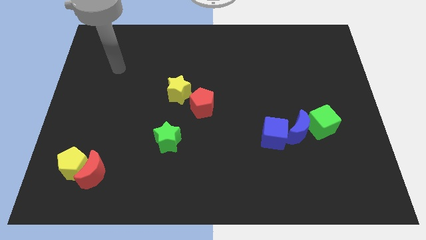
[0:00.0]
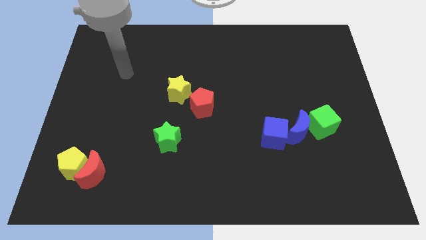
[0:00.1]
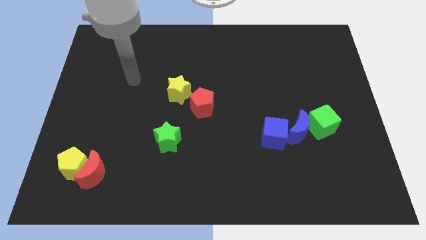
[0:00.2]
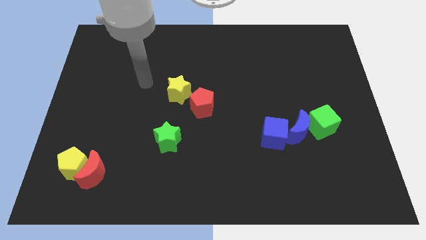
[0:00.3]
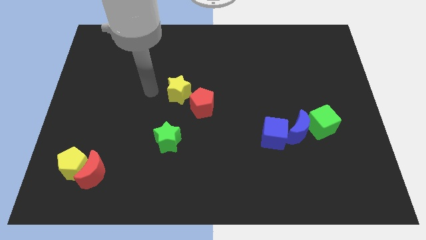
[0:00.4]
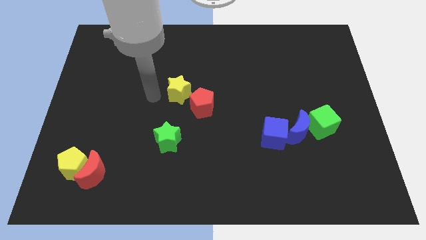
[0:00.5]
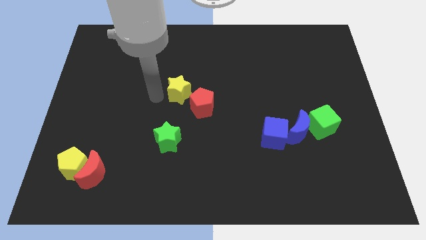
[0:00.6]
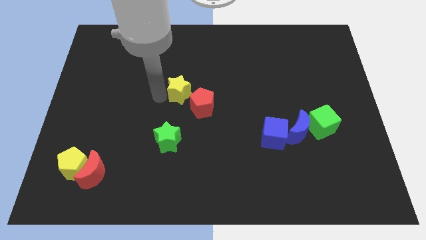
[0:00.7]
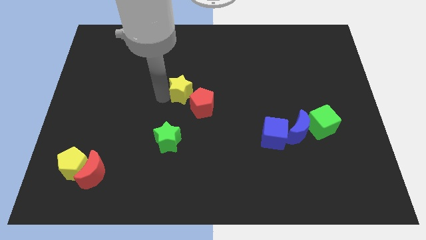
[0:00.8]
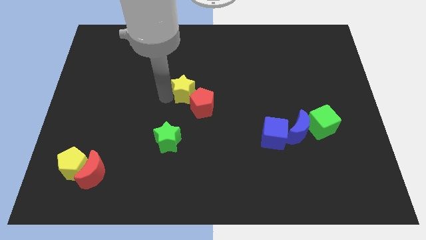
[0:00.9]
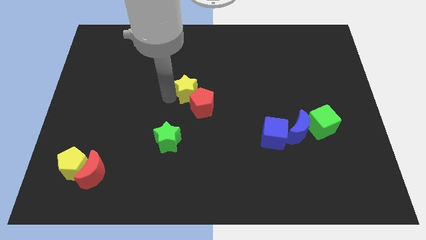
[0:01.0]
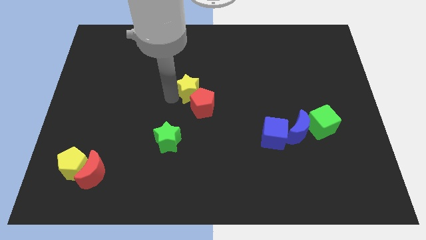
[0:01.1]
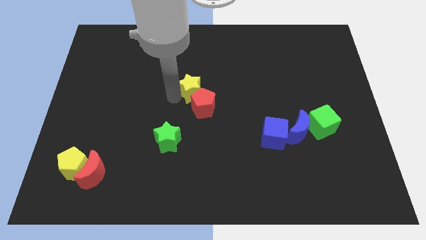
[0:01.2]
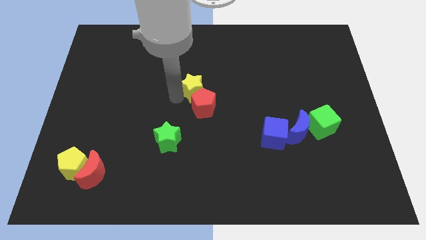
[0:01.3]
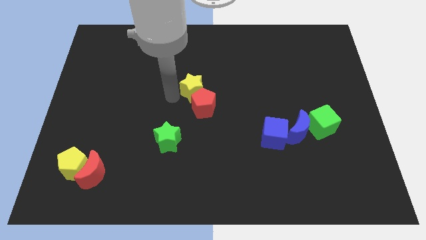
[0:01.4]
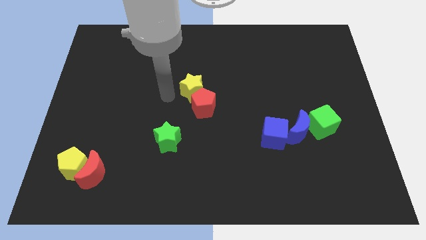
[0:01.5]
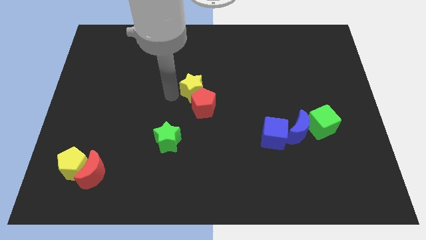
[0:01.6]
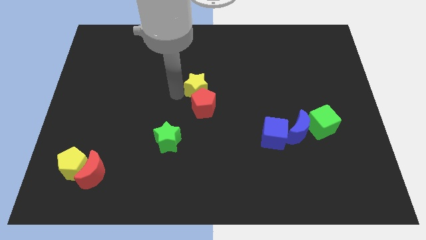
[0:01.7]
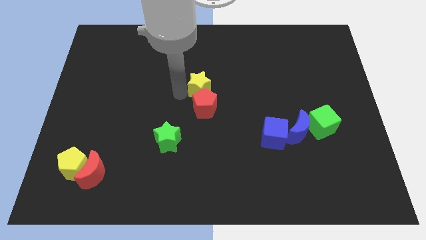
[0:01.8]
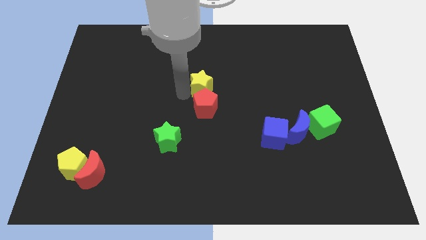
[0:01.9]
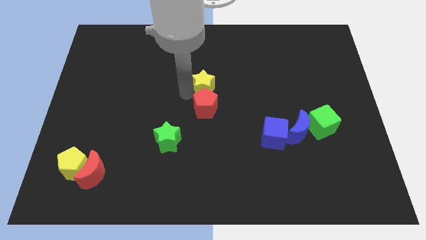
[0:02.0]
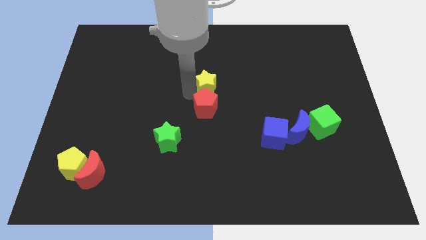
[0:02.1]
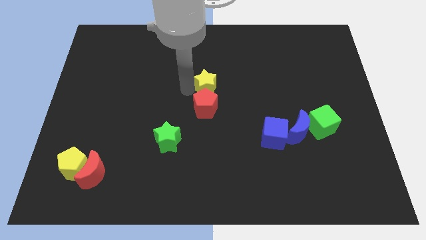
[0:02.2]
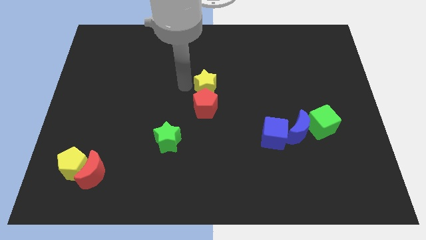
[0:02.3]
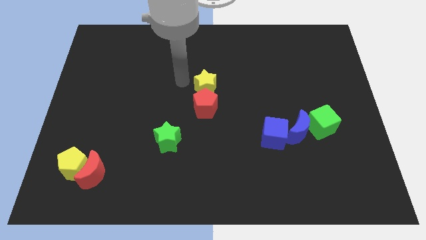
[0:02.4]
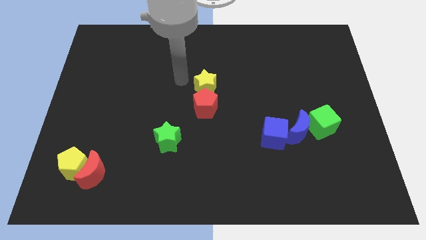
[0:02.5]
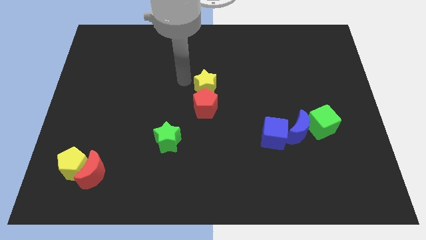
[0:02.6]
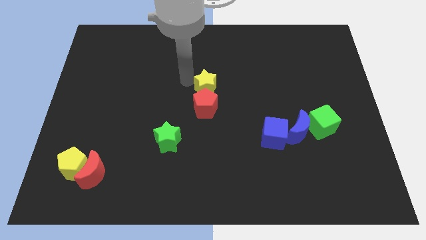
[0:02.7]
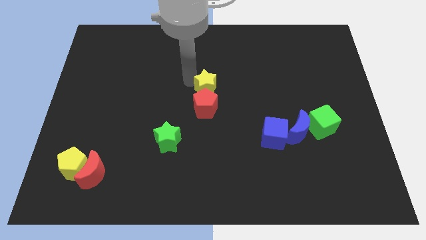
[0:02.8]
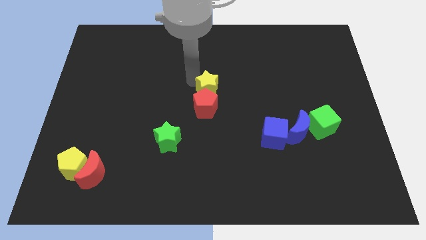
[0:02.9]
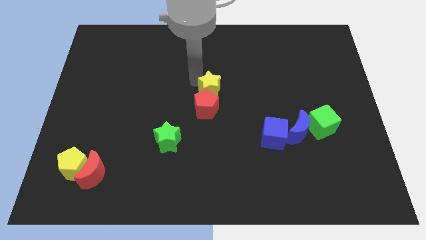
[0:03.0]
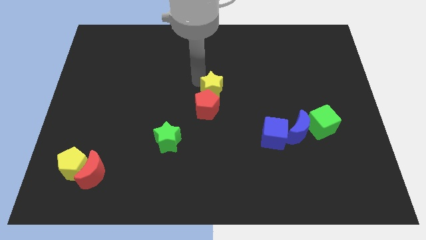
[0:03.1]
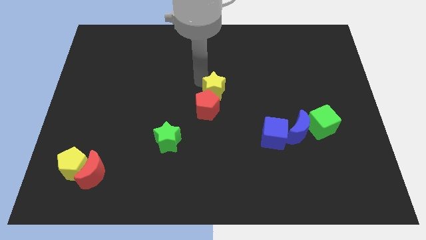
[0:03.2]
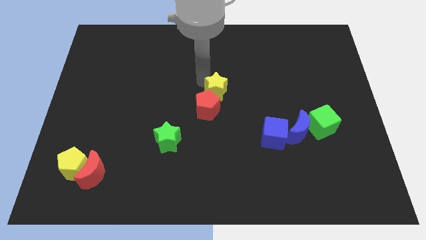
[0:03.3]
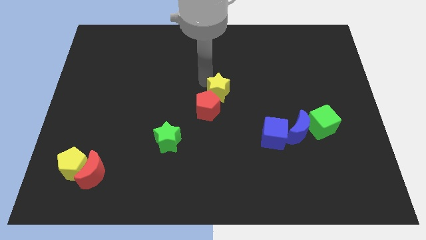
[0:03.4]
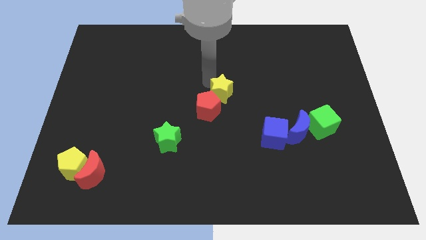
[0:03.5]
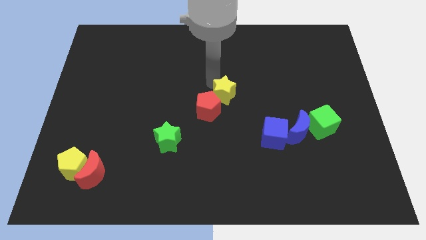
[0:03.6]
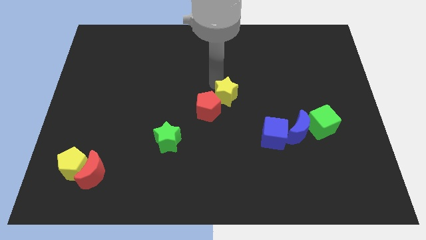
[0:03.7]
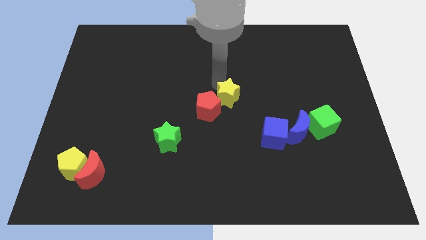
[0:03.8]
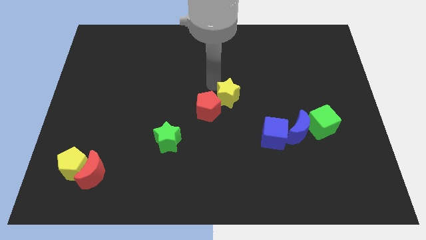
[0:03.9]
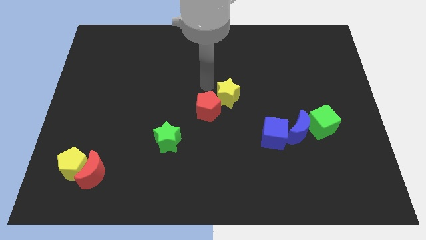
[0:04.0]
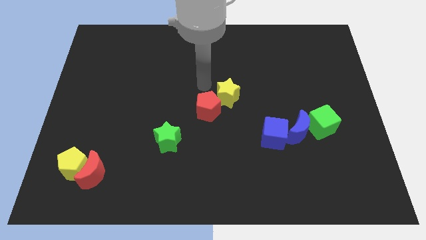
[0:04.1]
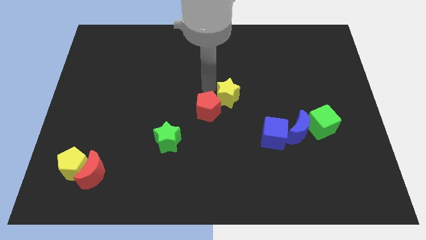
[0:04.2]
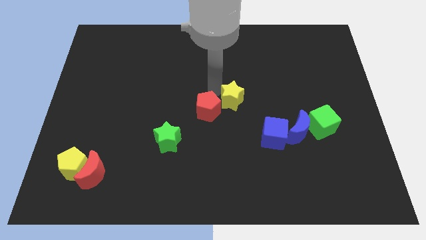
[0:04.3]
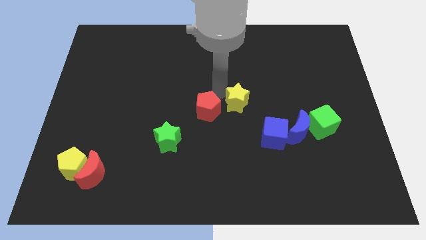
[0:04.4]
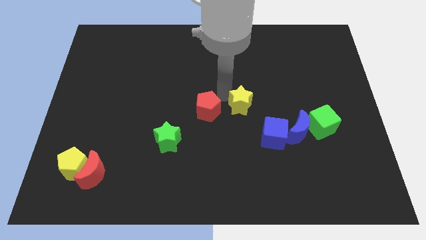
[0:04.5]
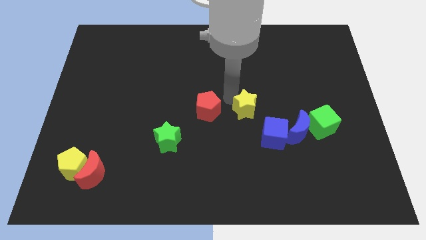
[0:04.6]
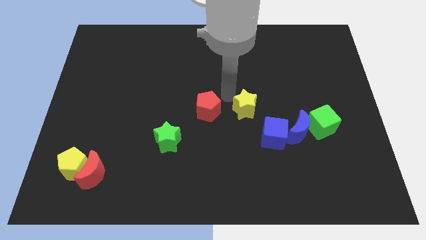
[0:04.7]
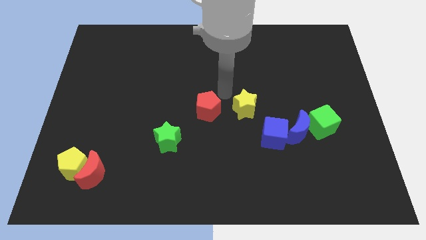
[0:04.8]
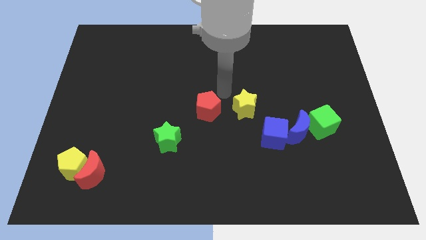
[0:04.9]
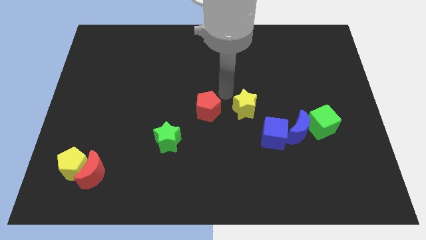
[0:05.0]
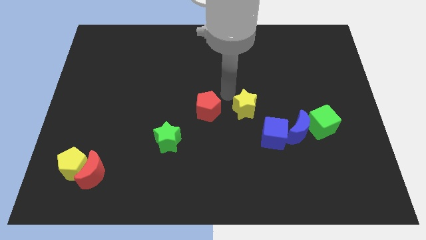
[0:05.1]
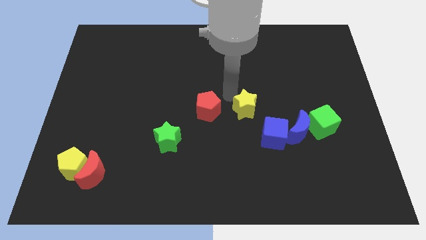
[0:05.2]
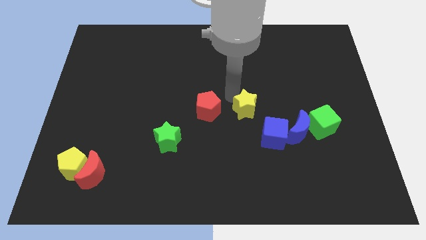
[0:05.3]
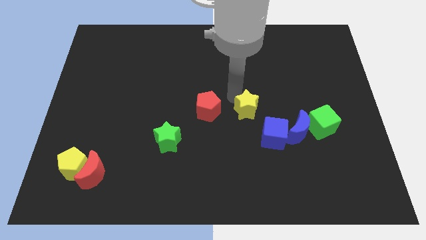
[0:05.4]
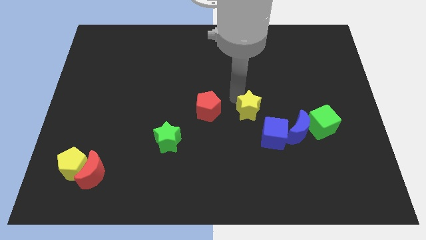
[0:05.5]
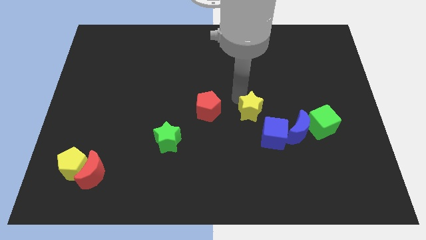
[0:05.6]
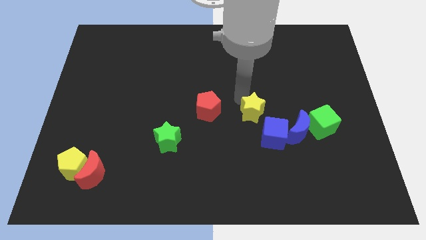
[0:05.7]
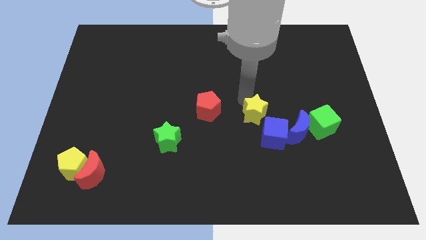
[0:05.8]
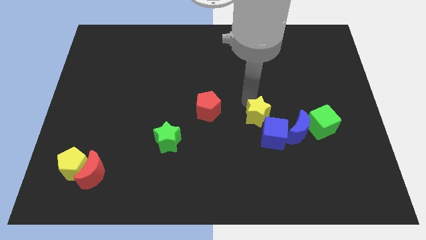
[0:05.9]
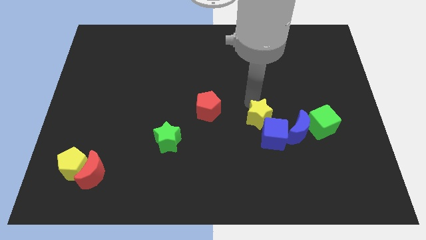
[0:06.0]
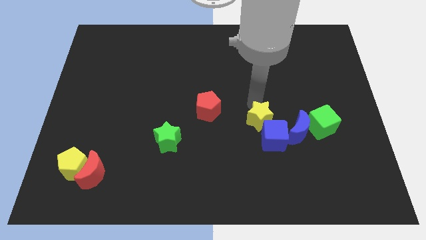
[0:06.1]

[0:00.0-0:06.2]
push the yellow star close to the blue cube

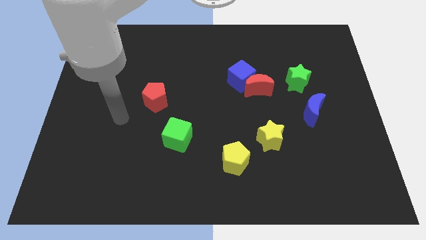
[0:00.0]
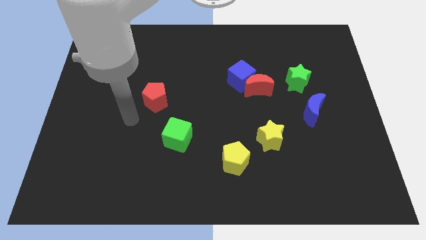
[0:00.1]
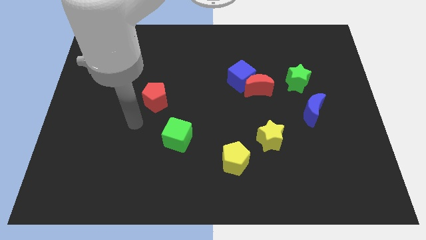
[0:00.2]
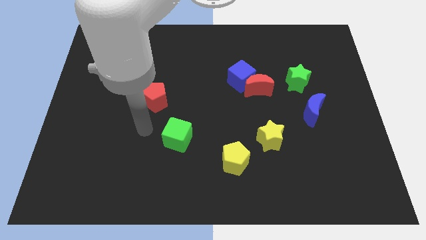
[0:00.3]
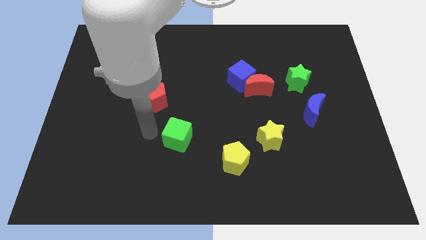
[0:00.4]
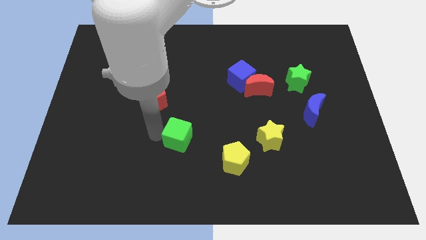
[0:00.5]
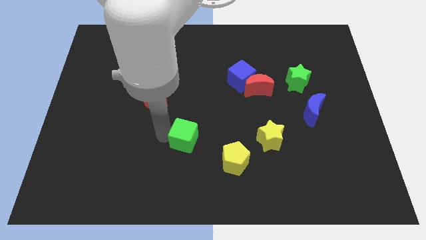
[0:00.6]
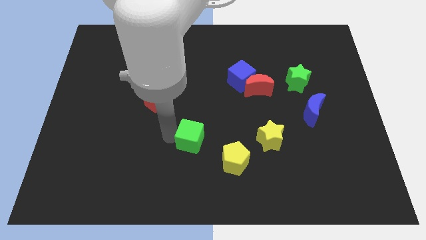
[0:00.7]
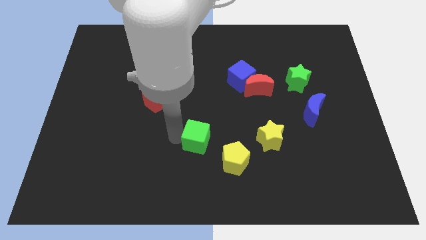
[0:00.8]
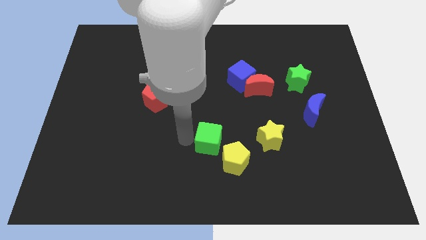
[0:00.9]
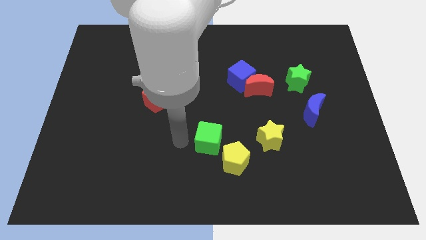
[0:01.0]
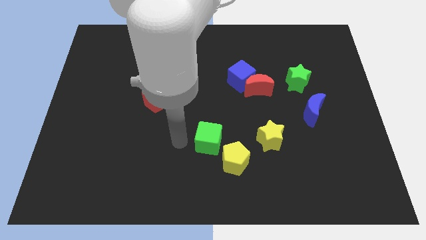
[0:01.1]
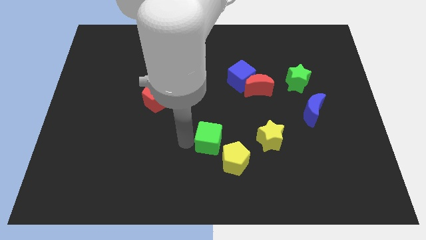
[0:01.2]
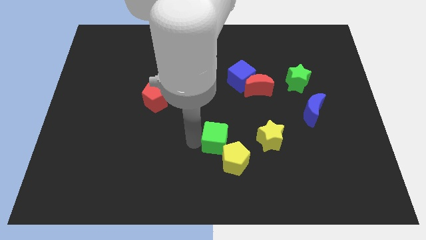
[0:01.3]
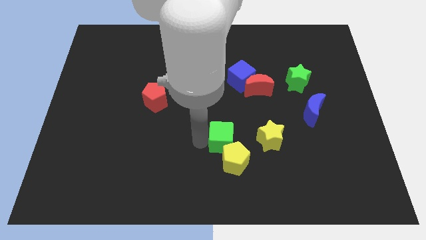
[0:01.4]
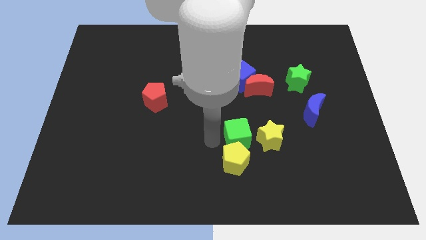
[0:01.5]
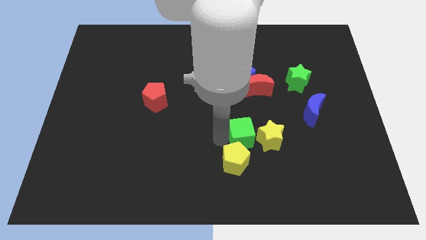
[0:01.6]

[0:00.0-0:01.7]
push the green cube towards the yellow star
